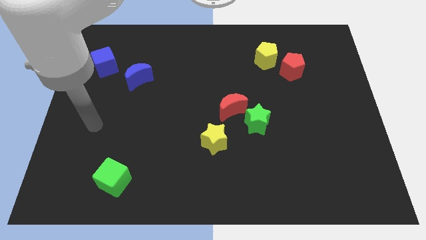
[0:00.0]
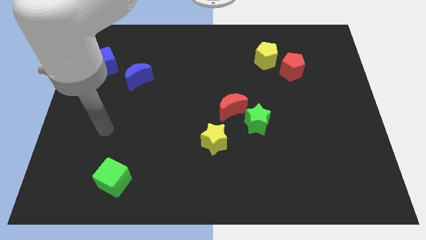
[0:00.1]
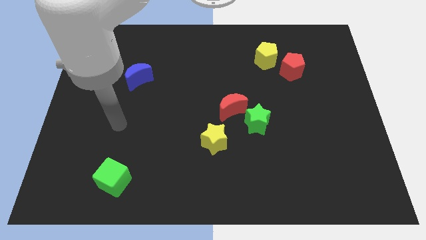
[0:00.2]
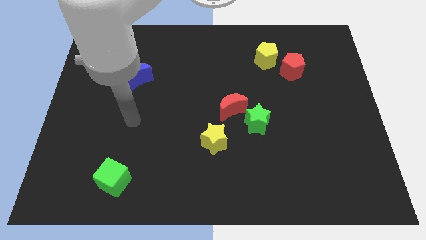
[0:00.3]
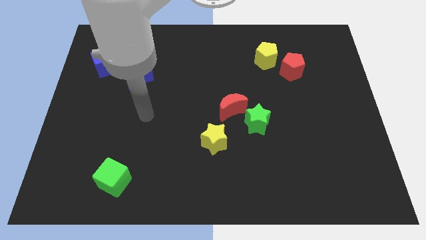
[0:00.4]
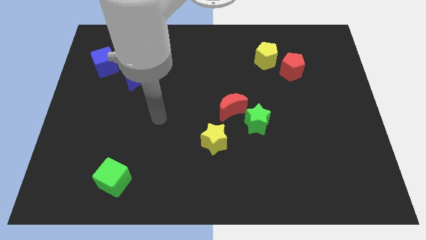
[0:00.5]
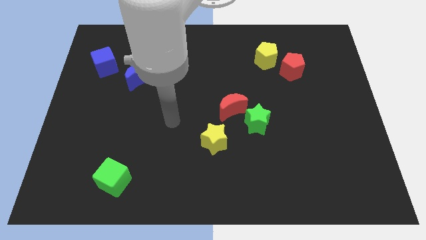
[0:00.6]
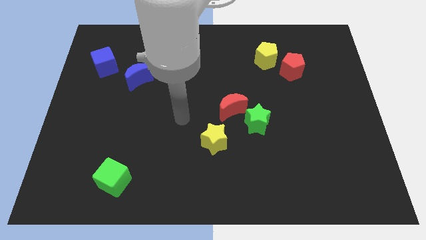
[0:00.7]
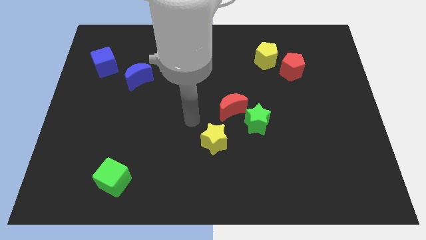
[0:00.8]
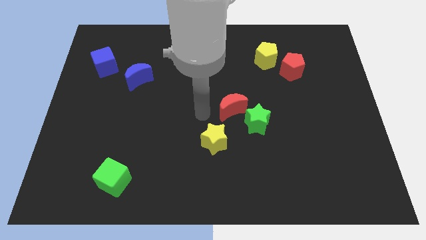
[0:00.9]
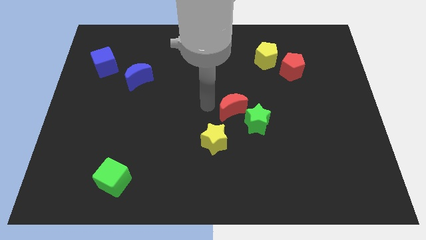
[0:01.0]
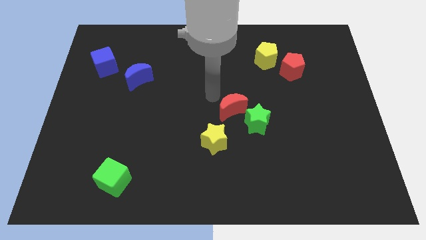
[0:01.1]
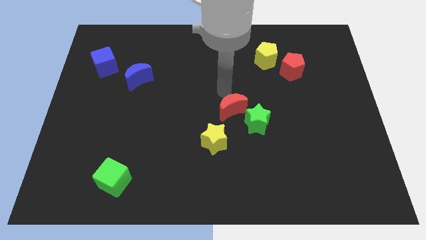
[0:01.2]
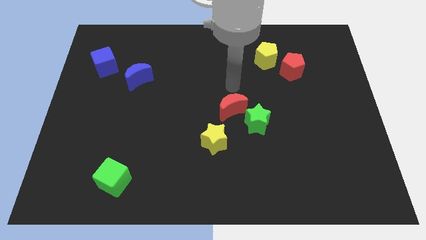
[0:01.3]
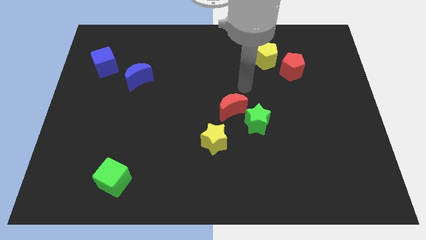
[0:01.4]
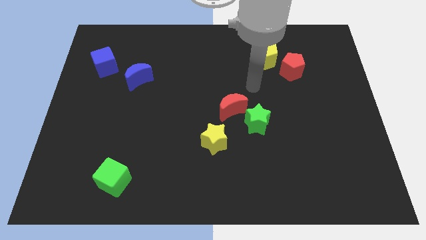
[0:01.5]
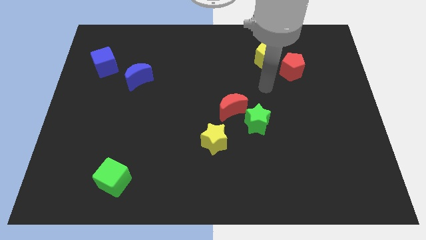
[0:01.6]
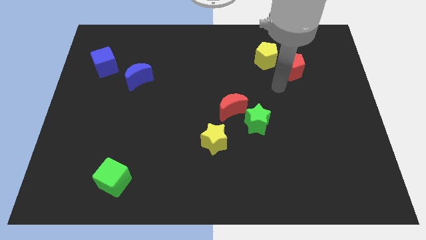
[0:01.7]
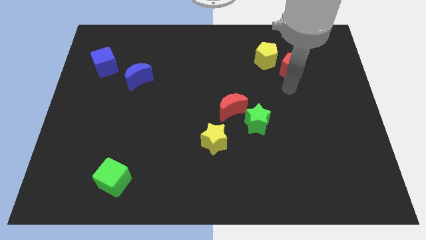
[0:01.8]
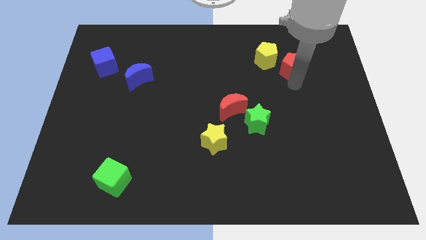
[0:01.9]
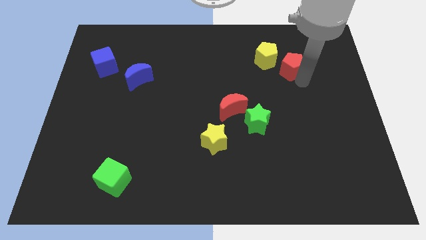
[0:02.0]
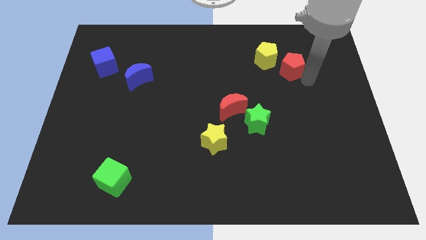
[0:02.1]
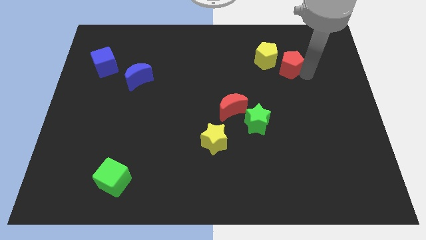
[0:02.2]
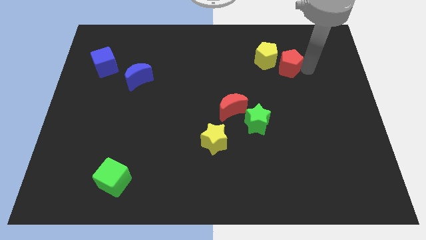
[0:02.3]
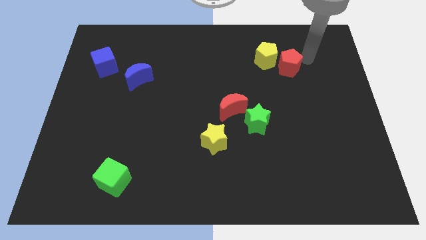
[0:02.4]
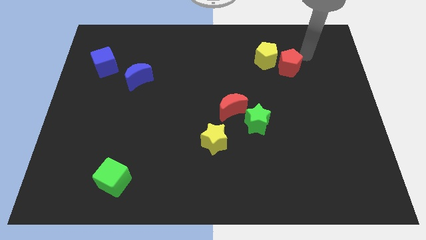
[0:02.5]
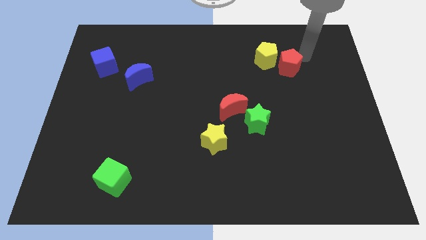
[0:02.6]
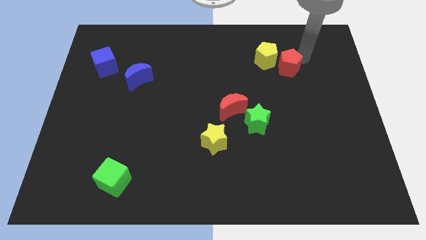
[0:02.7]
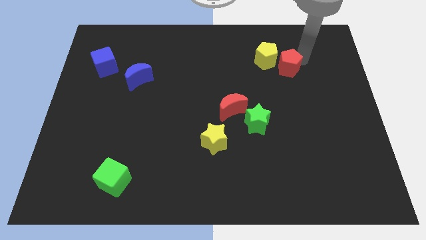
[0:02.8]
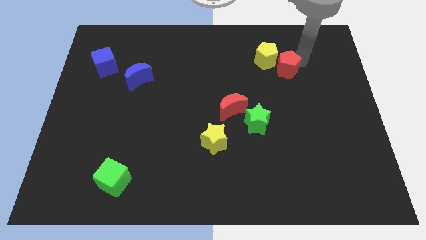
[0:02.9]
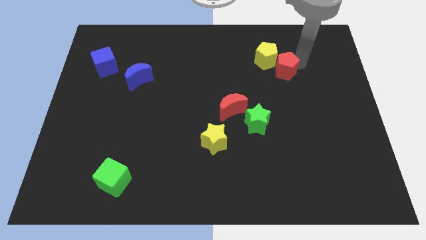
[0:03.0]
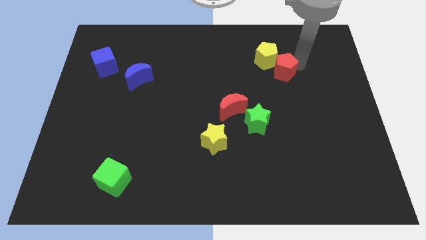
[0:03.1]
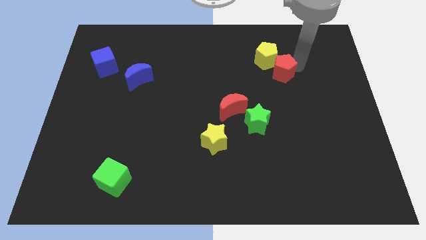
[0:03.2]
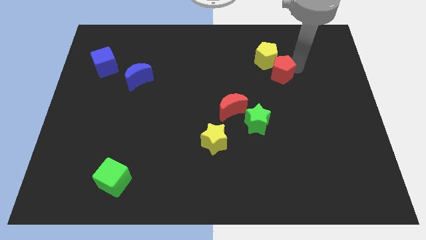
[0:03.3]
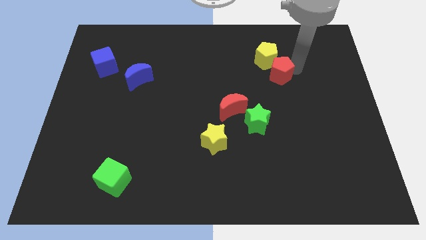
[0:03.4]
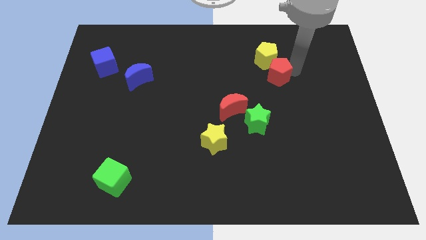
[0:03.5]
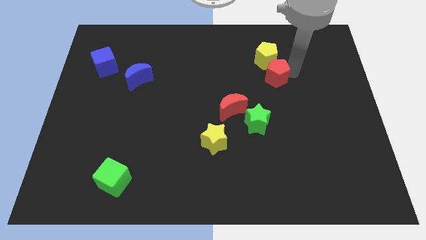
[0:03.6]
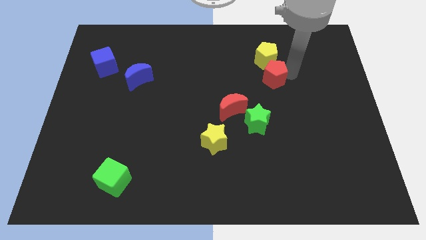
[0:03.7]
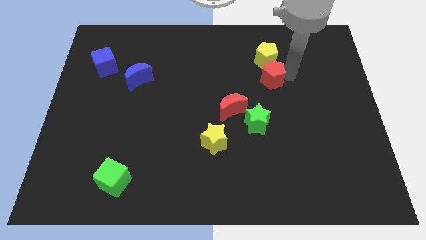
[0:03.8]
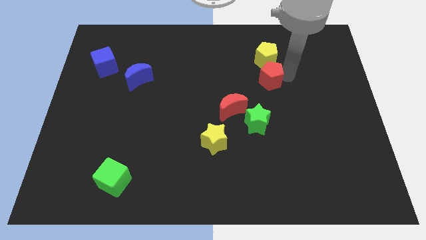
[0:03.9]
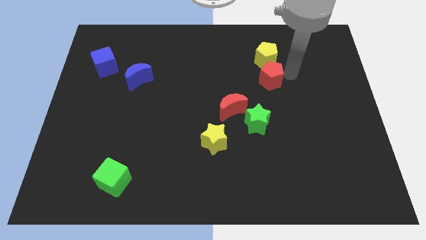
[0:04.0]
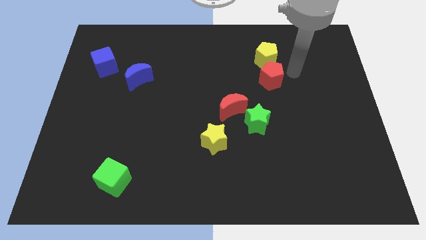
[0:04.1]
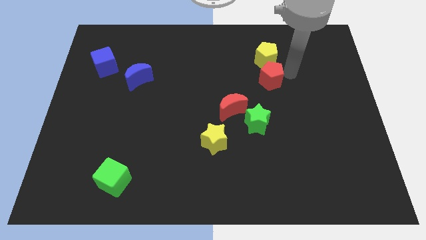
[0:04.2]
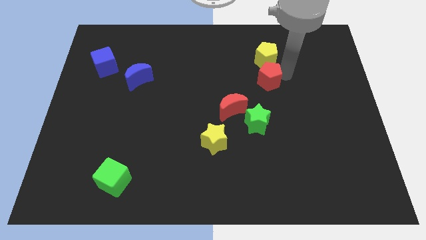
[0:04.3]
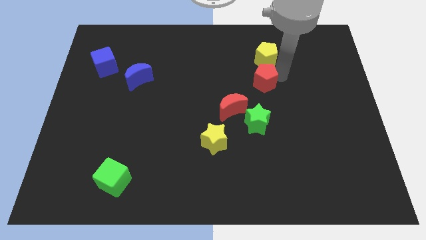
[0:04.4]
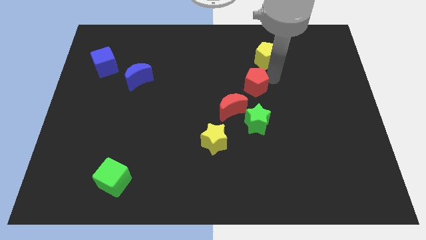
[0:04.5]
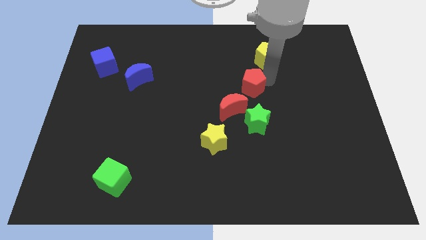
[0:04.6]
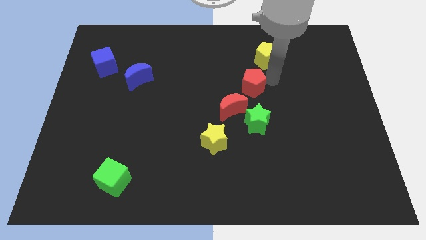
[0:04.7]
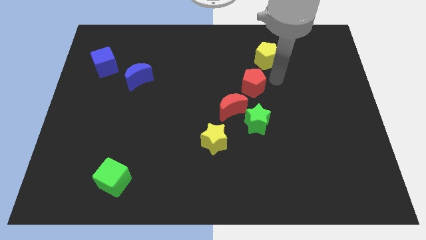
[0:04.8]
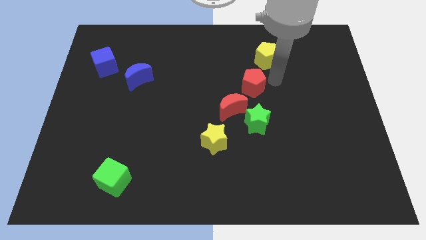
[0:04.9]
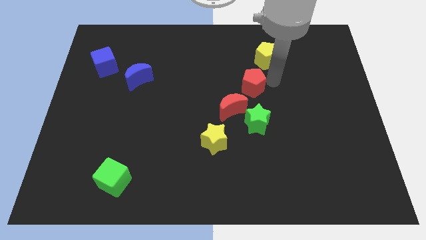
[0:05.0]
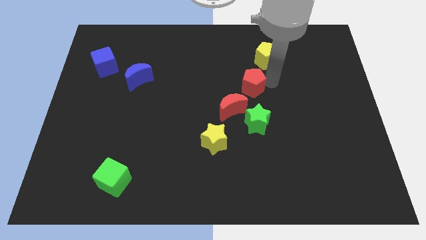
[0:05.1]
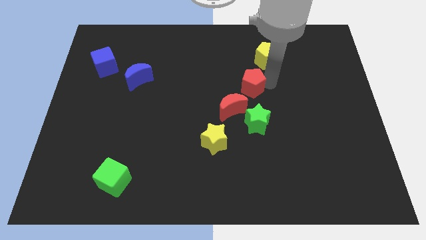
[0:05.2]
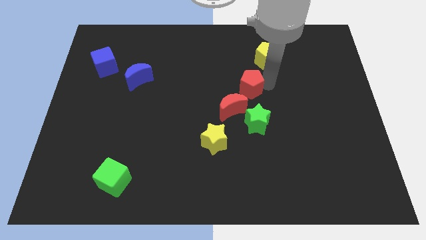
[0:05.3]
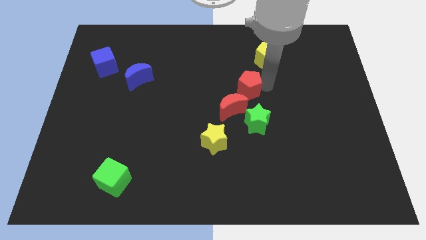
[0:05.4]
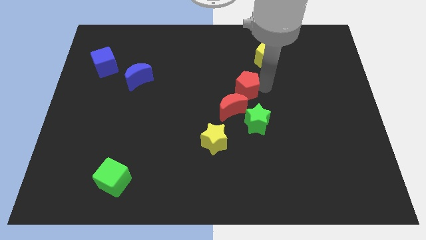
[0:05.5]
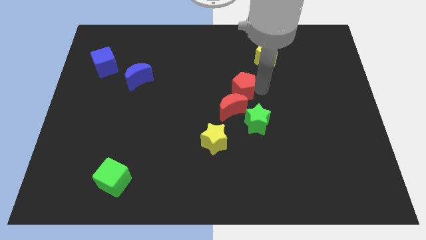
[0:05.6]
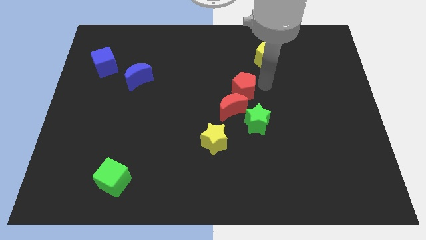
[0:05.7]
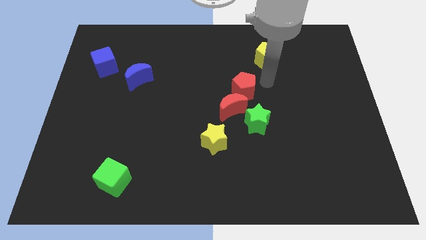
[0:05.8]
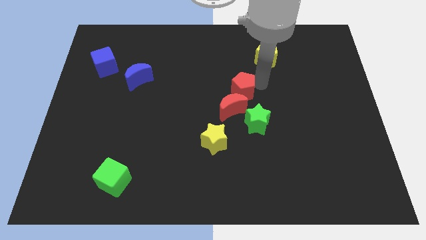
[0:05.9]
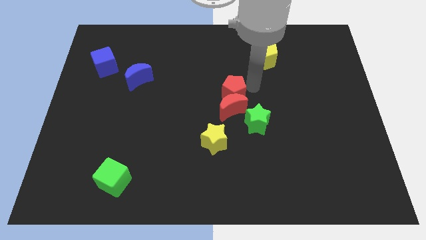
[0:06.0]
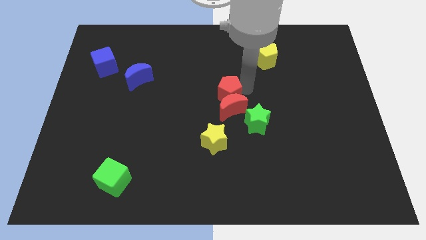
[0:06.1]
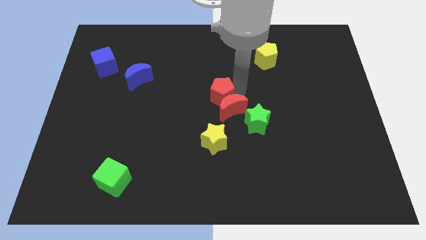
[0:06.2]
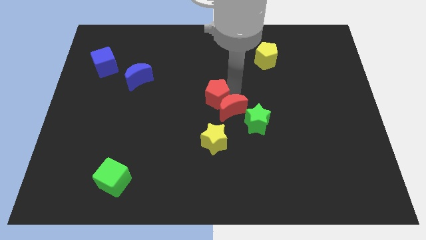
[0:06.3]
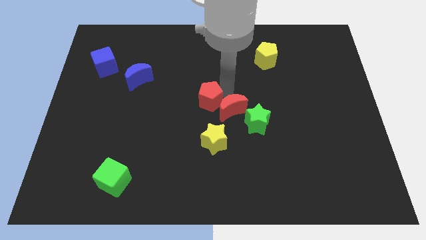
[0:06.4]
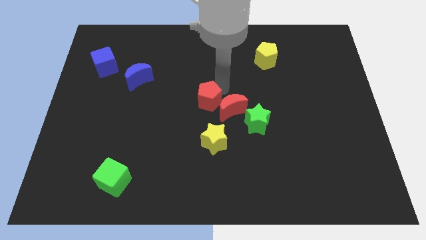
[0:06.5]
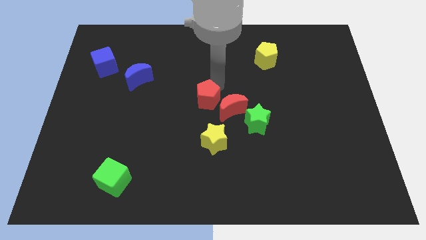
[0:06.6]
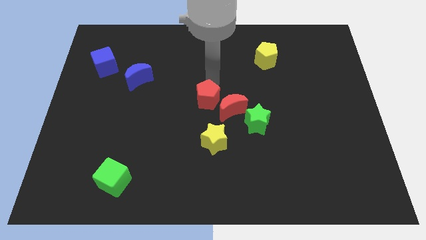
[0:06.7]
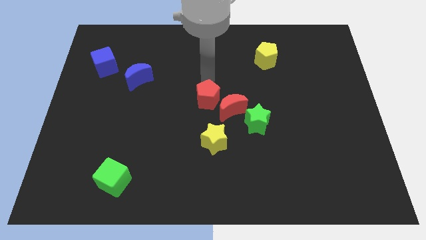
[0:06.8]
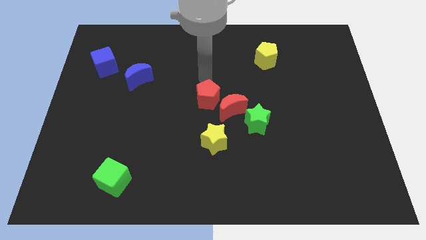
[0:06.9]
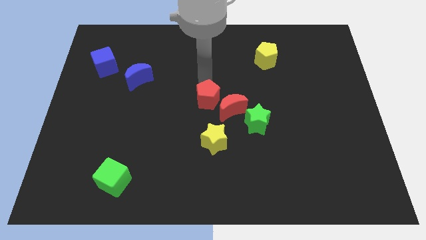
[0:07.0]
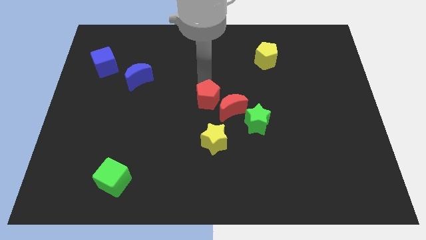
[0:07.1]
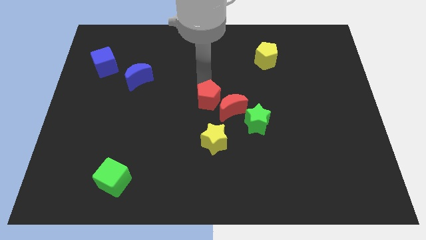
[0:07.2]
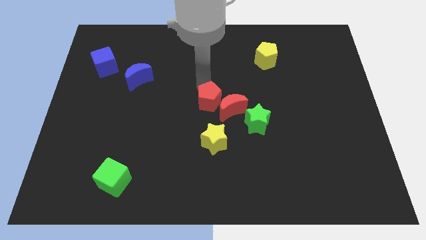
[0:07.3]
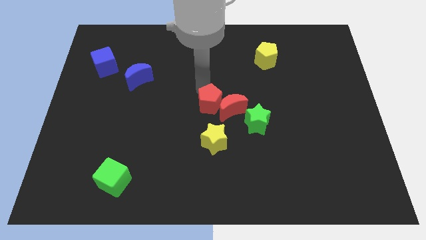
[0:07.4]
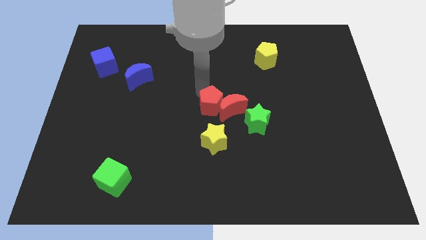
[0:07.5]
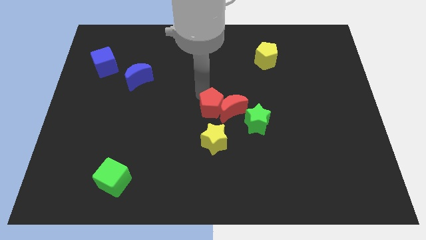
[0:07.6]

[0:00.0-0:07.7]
push the red pentagon to the left of the green star

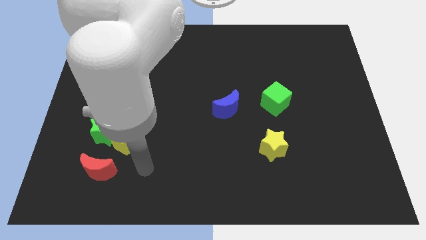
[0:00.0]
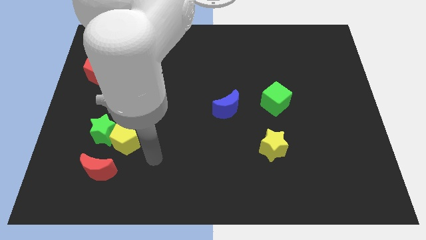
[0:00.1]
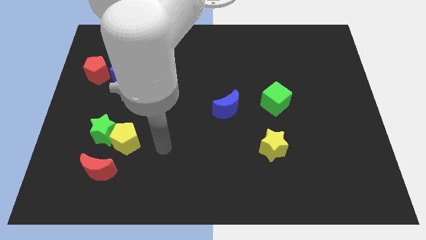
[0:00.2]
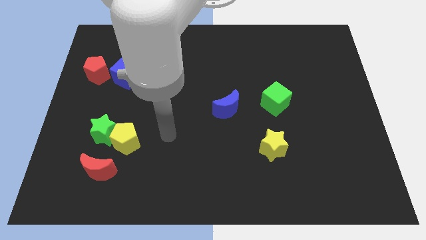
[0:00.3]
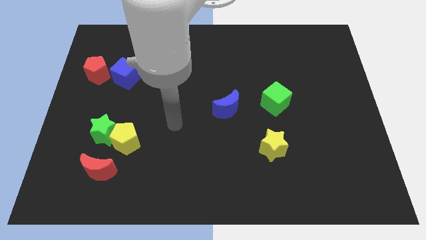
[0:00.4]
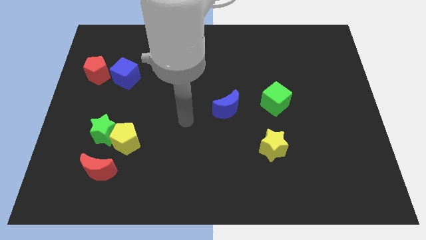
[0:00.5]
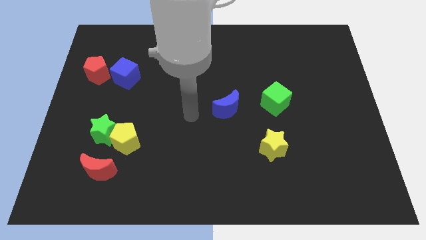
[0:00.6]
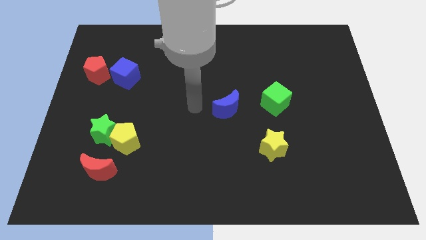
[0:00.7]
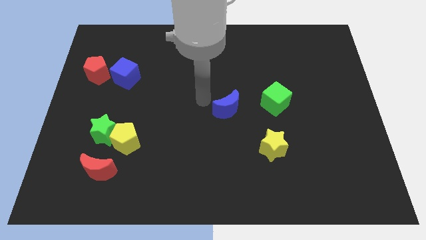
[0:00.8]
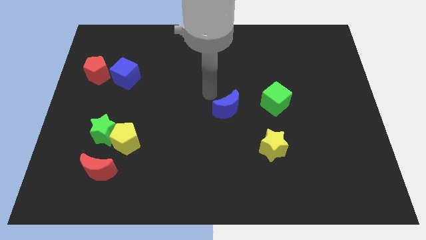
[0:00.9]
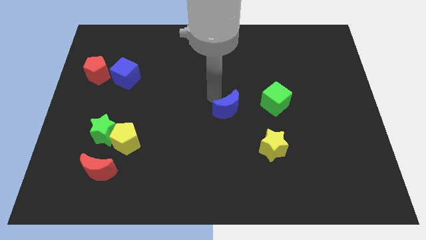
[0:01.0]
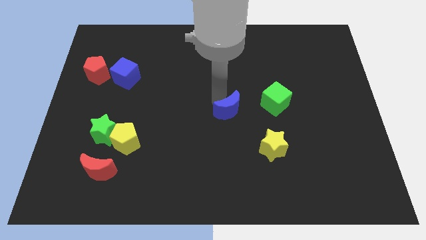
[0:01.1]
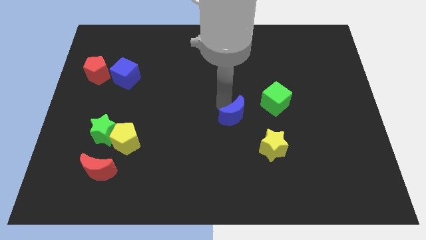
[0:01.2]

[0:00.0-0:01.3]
slide the blue moon to the top left of the yellow star
